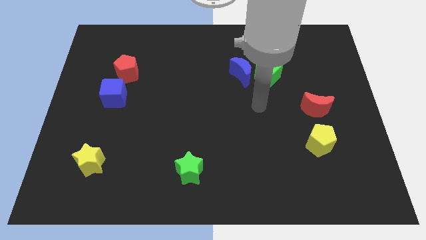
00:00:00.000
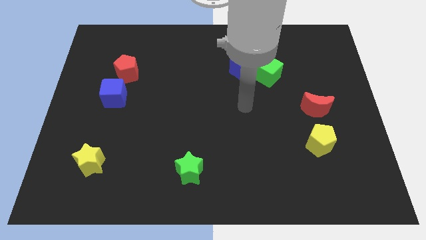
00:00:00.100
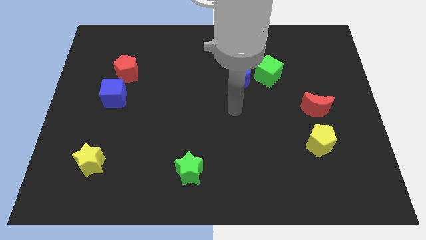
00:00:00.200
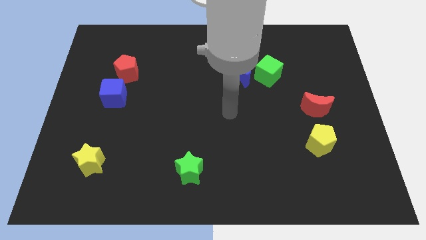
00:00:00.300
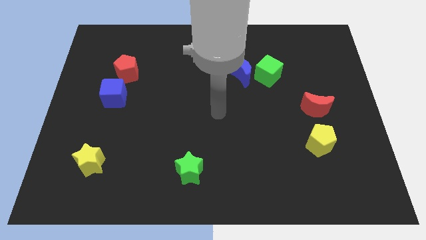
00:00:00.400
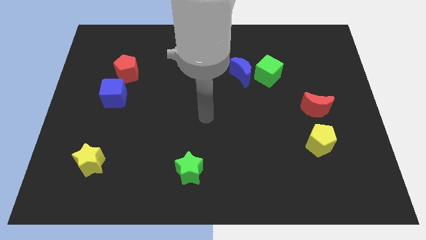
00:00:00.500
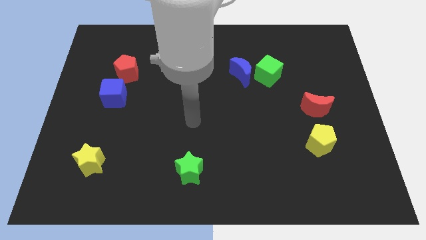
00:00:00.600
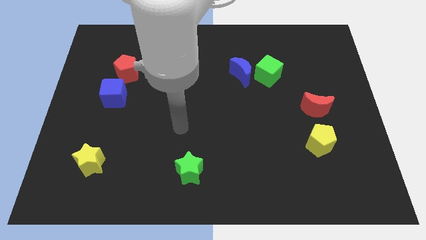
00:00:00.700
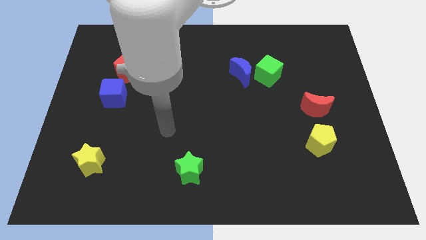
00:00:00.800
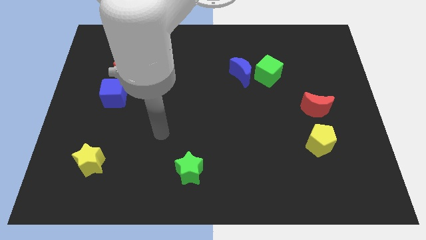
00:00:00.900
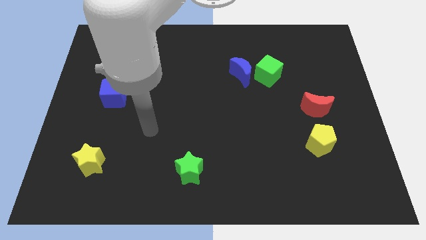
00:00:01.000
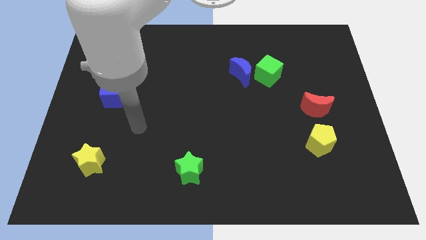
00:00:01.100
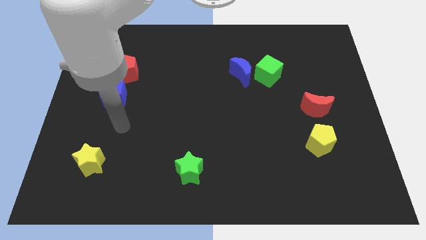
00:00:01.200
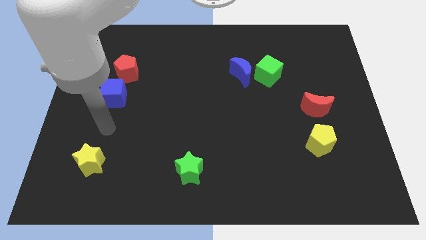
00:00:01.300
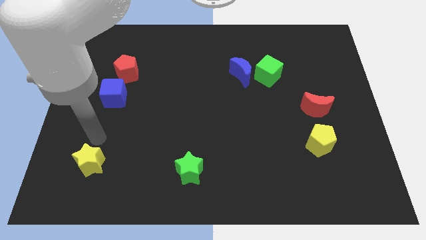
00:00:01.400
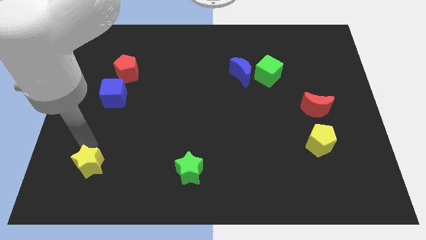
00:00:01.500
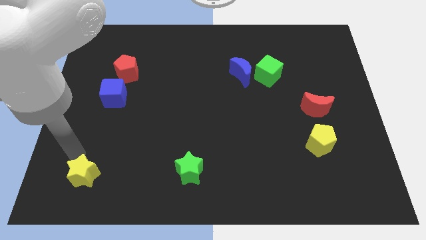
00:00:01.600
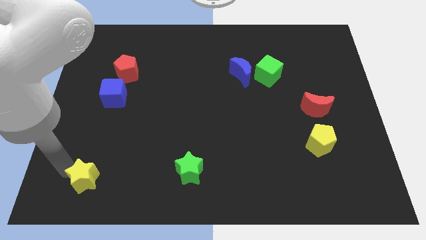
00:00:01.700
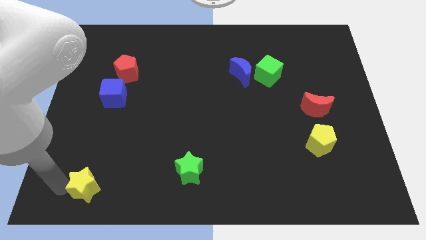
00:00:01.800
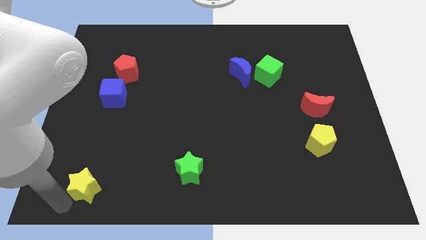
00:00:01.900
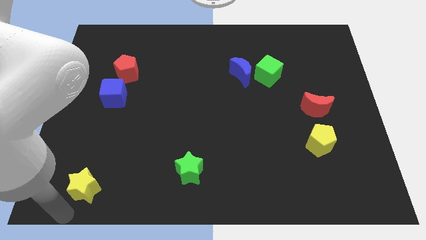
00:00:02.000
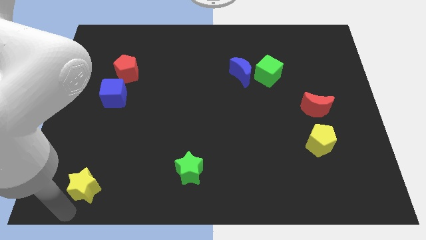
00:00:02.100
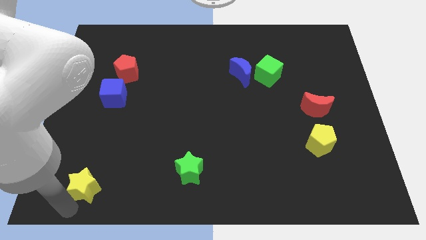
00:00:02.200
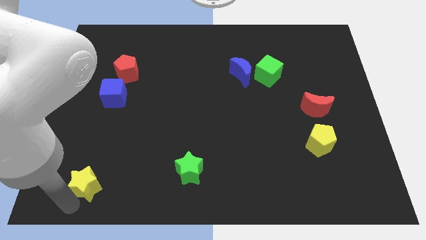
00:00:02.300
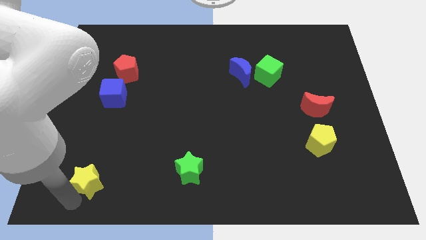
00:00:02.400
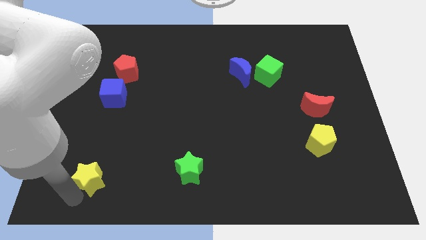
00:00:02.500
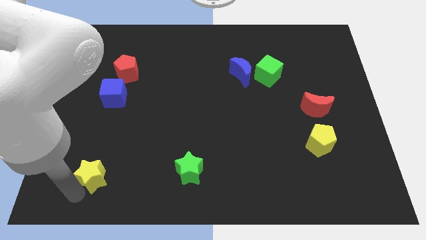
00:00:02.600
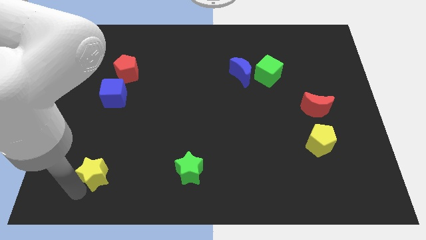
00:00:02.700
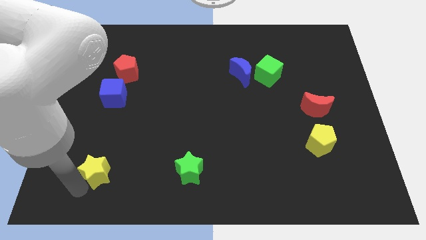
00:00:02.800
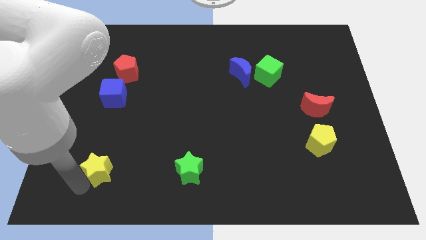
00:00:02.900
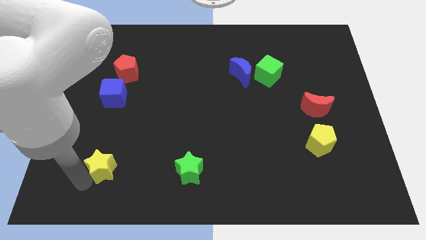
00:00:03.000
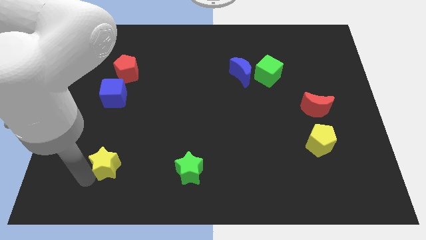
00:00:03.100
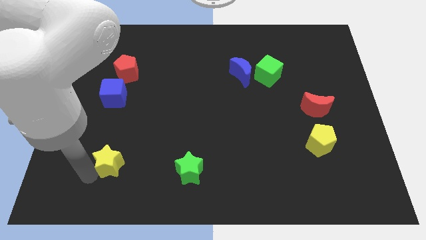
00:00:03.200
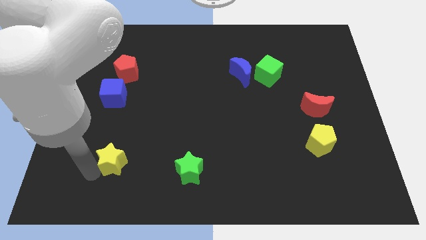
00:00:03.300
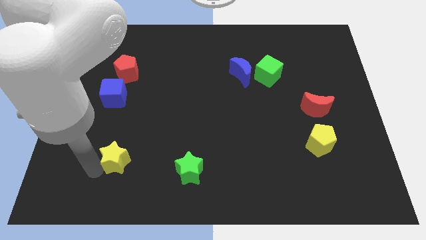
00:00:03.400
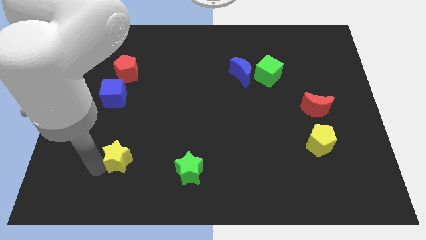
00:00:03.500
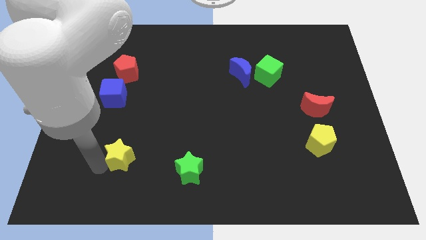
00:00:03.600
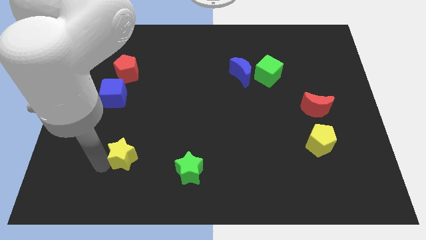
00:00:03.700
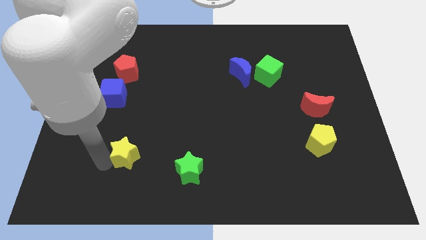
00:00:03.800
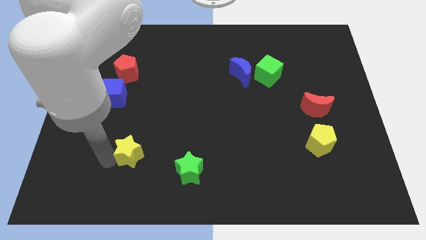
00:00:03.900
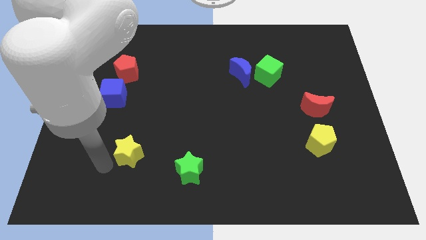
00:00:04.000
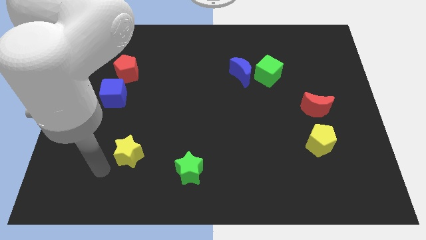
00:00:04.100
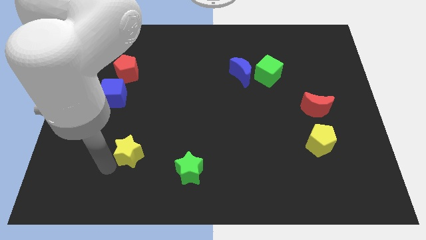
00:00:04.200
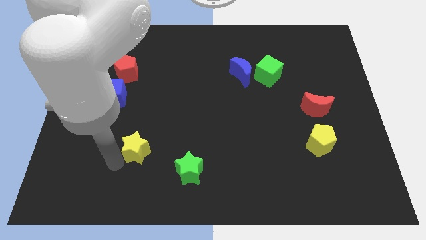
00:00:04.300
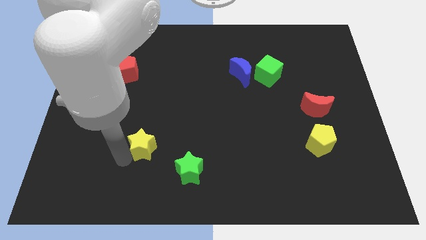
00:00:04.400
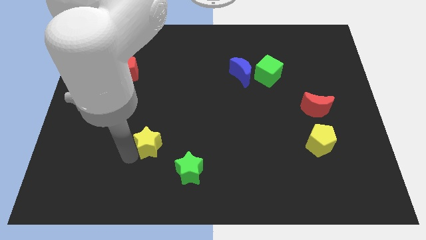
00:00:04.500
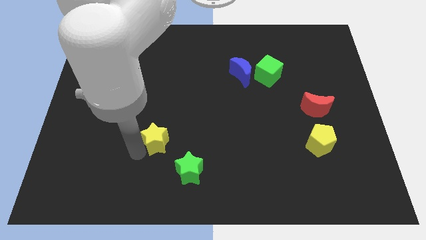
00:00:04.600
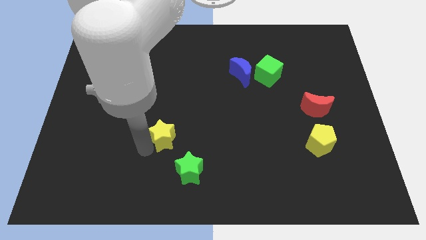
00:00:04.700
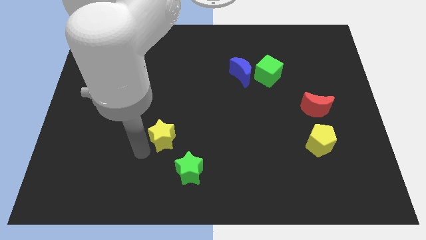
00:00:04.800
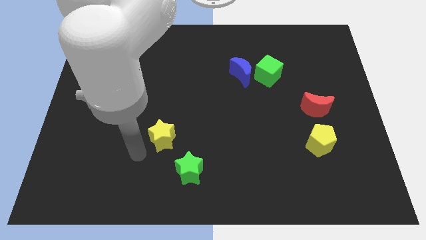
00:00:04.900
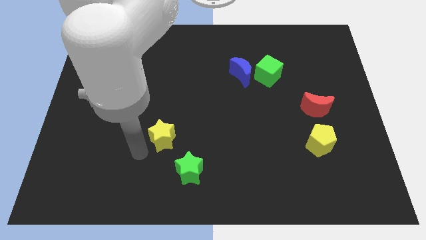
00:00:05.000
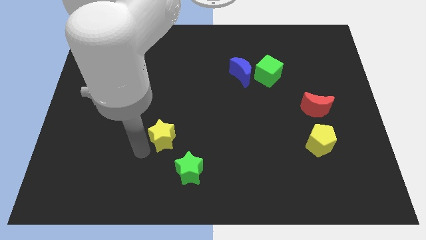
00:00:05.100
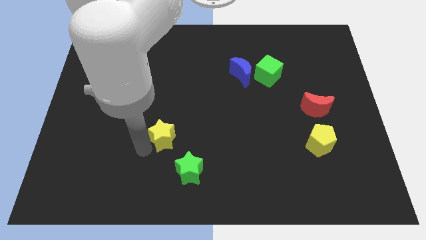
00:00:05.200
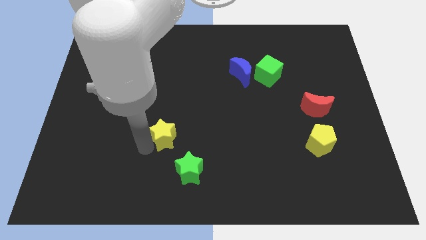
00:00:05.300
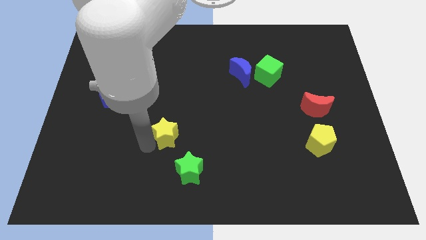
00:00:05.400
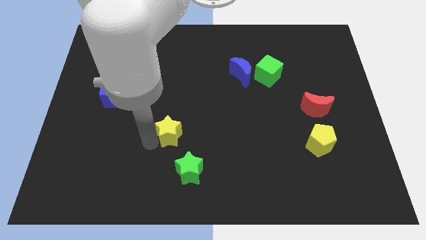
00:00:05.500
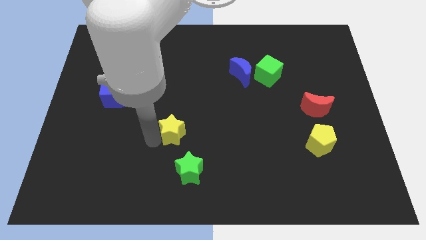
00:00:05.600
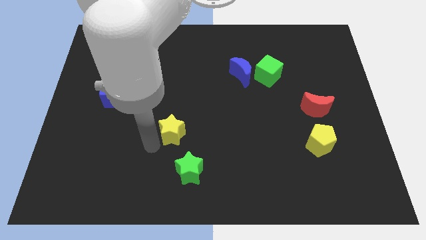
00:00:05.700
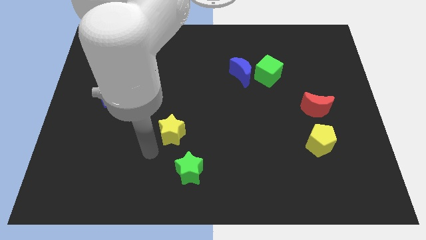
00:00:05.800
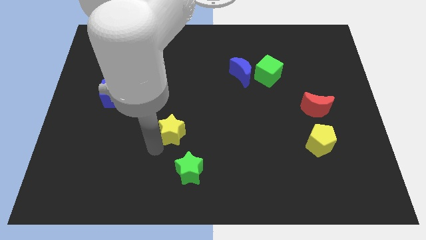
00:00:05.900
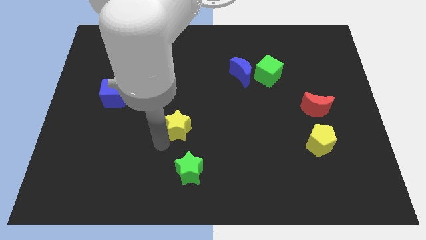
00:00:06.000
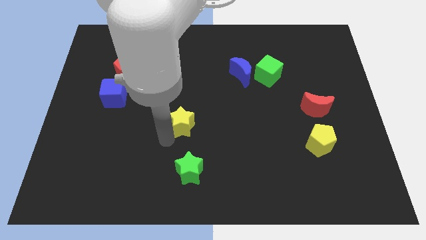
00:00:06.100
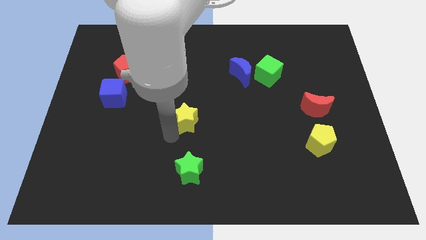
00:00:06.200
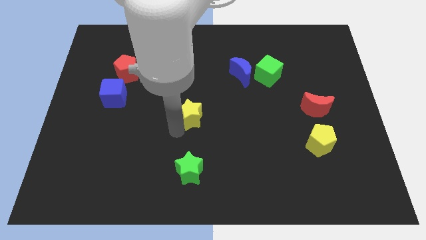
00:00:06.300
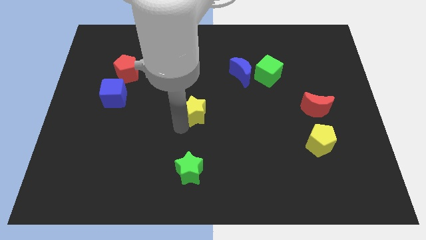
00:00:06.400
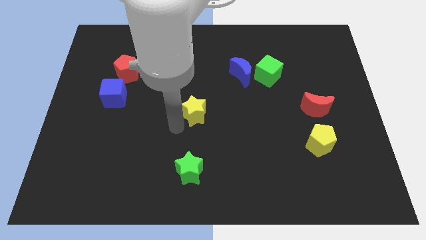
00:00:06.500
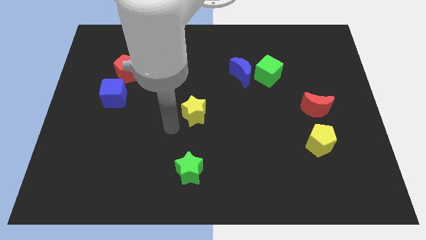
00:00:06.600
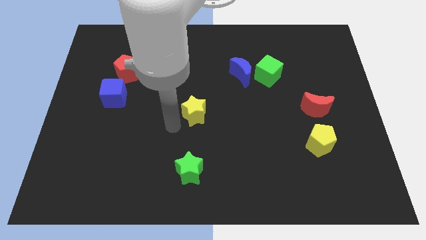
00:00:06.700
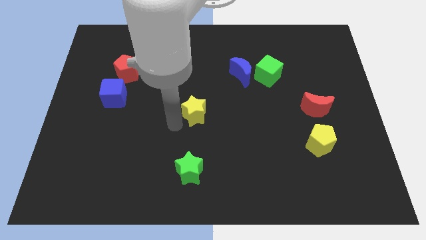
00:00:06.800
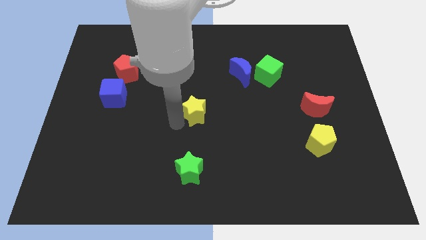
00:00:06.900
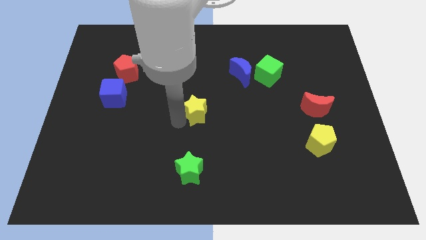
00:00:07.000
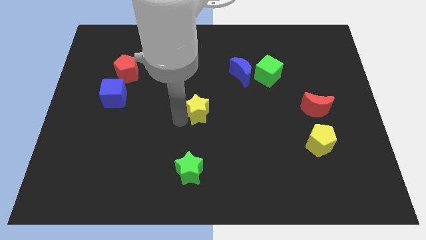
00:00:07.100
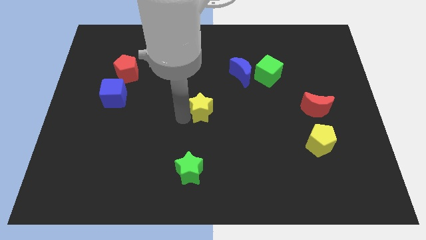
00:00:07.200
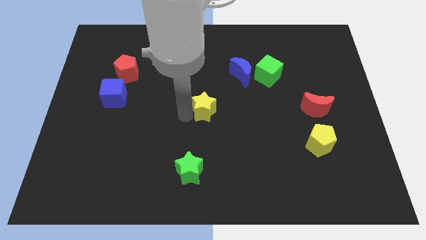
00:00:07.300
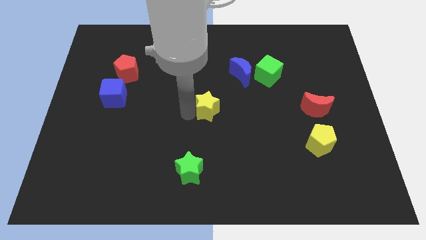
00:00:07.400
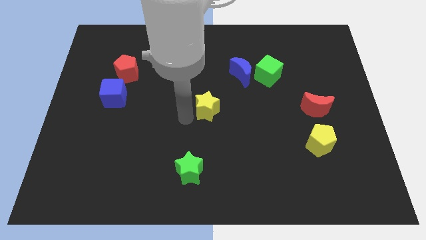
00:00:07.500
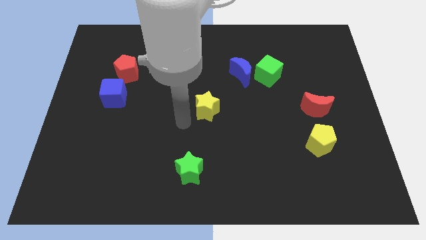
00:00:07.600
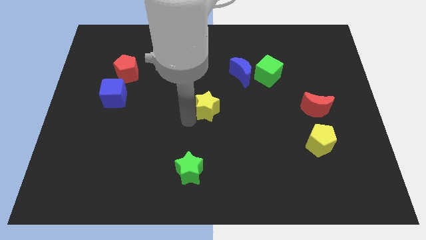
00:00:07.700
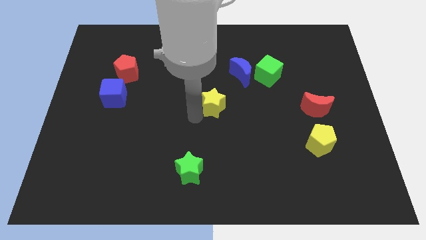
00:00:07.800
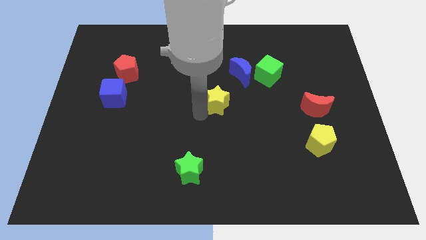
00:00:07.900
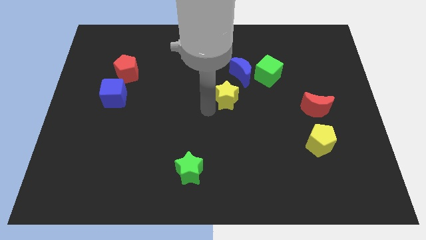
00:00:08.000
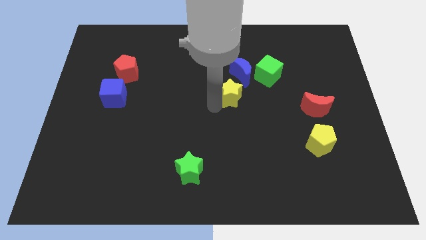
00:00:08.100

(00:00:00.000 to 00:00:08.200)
move the yellow star to the bottom left of the green cube
